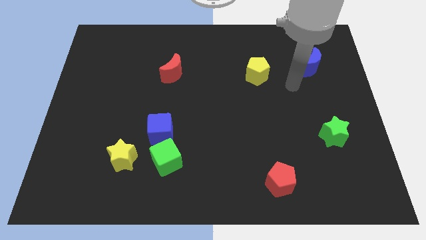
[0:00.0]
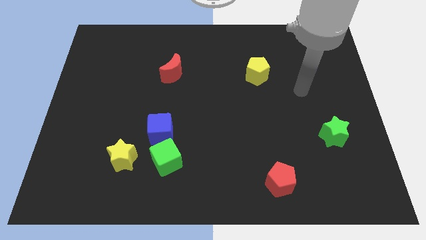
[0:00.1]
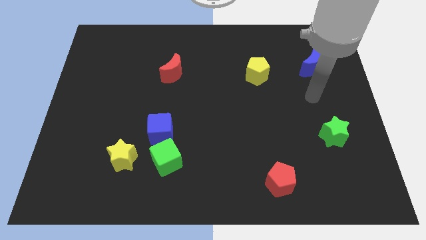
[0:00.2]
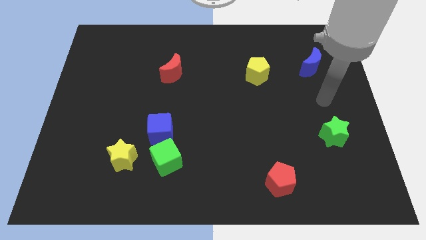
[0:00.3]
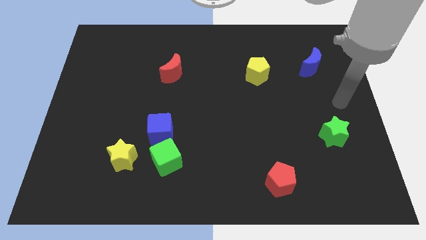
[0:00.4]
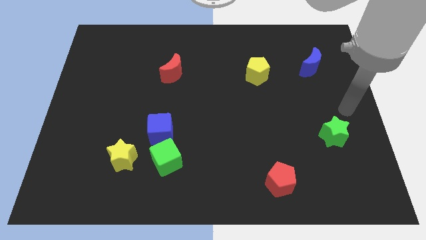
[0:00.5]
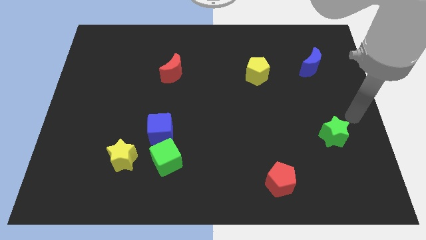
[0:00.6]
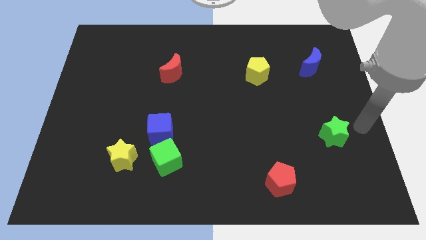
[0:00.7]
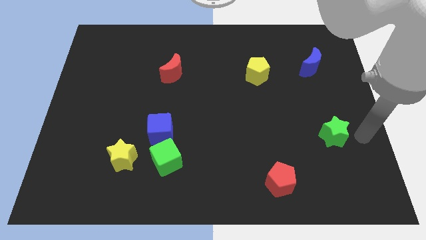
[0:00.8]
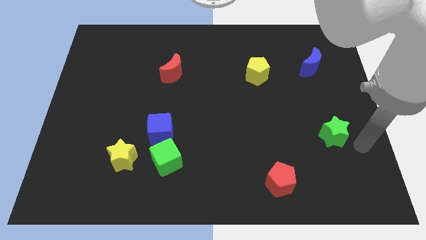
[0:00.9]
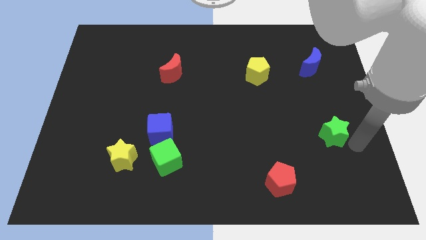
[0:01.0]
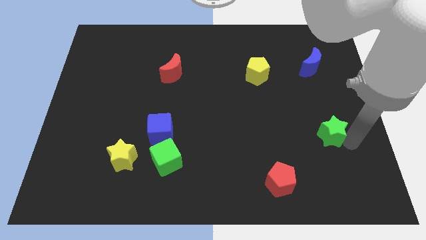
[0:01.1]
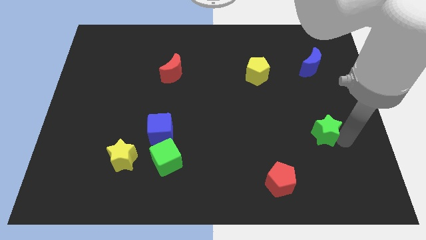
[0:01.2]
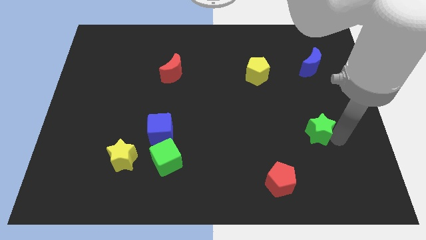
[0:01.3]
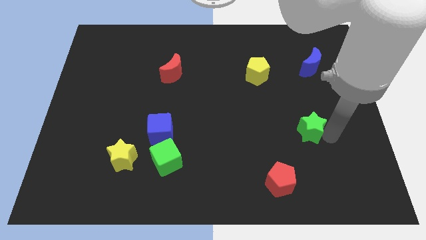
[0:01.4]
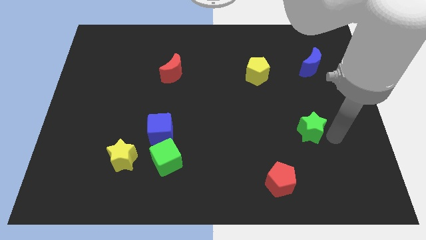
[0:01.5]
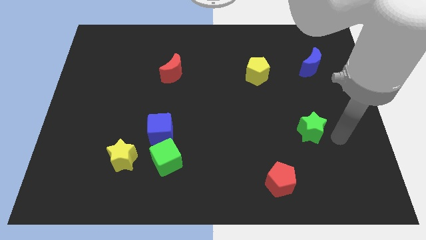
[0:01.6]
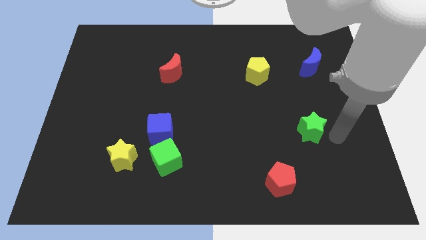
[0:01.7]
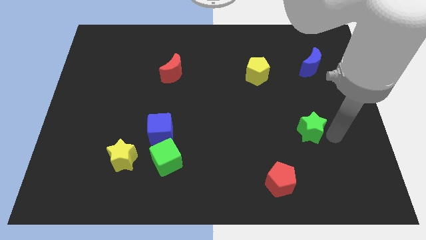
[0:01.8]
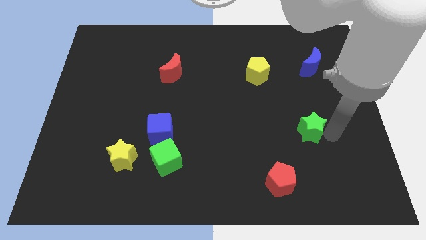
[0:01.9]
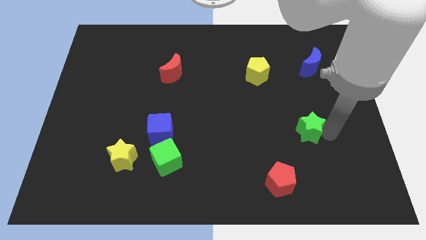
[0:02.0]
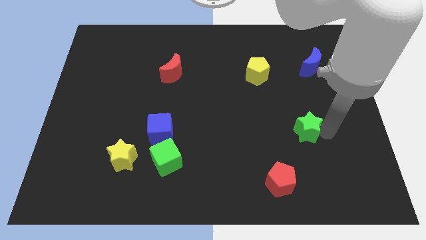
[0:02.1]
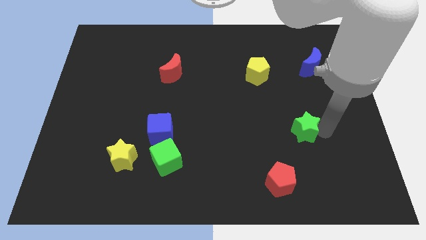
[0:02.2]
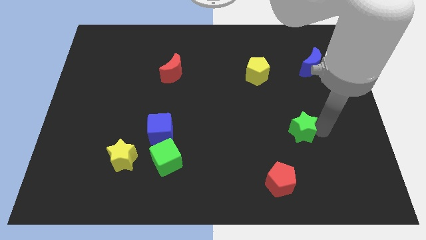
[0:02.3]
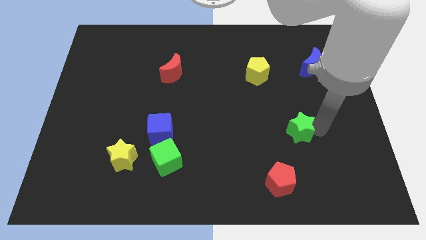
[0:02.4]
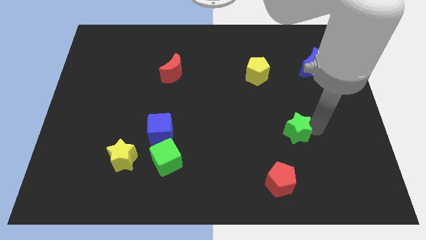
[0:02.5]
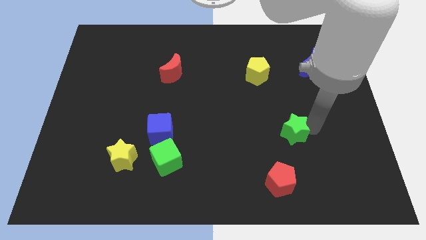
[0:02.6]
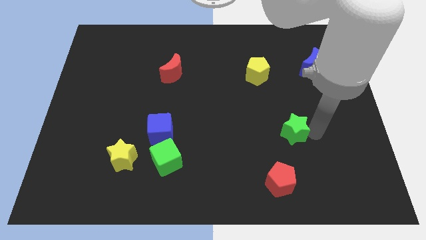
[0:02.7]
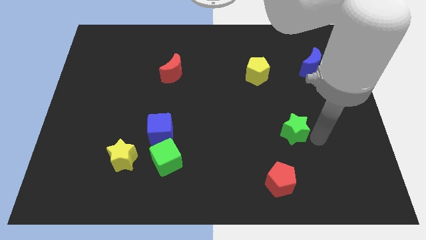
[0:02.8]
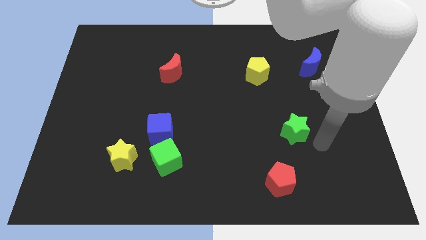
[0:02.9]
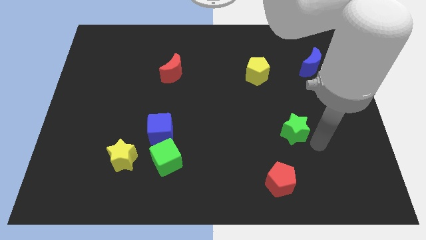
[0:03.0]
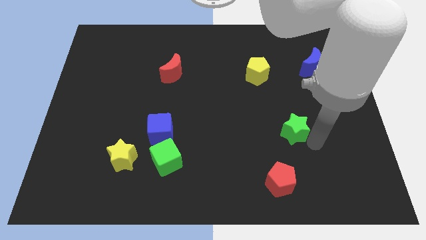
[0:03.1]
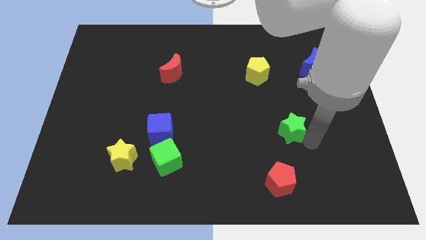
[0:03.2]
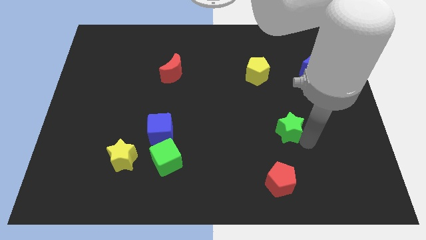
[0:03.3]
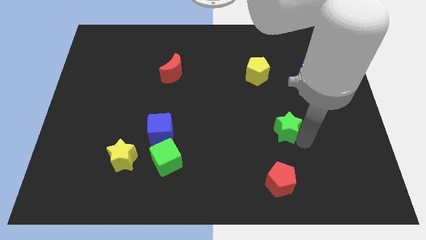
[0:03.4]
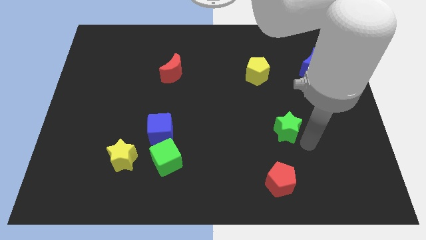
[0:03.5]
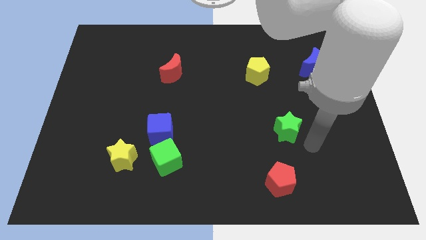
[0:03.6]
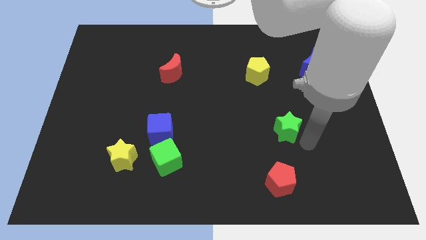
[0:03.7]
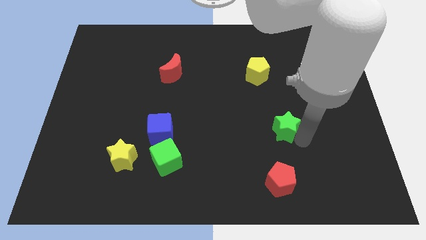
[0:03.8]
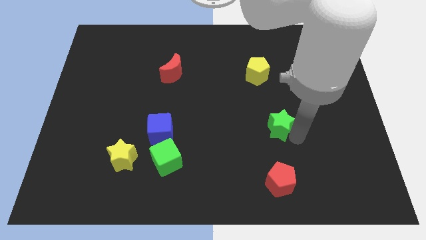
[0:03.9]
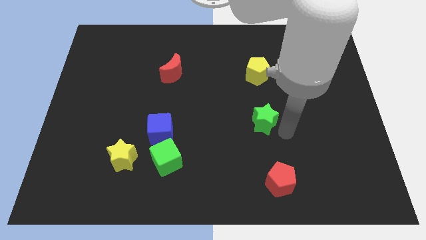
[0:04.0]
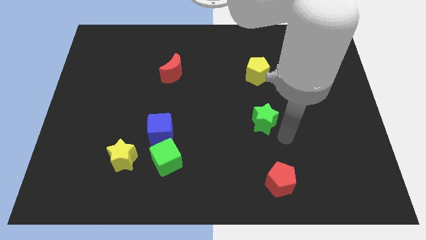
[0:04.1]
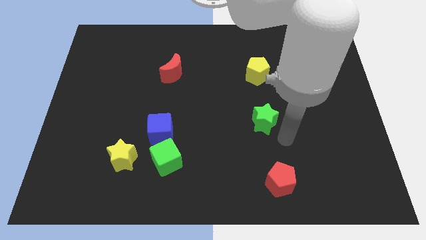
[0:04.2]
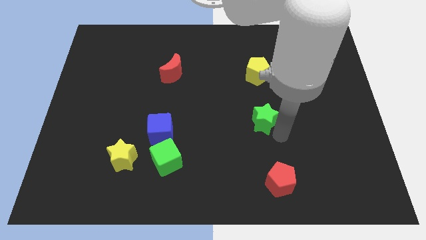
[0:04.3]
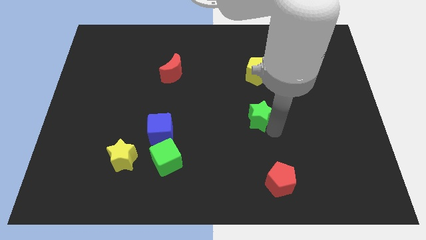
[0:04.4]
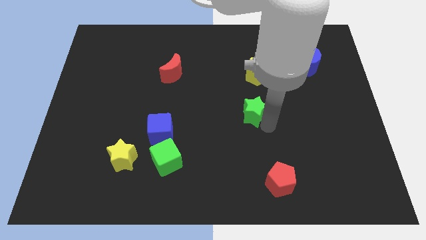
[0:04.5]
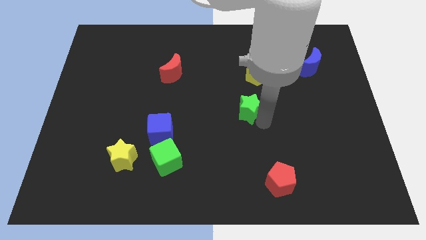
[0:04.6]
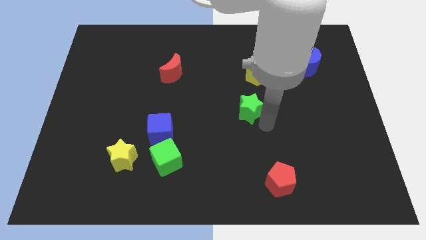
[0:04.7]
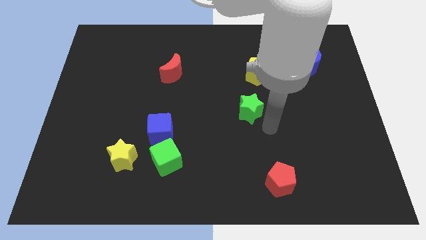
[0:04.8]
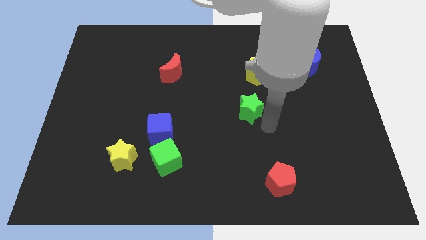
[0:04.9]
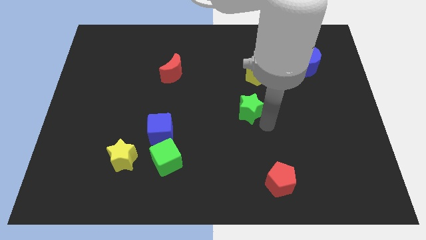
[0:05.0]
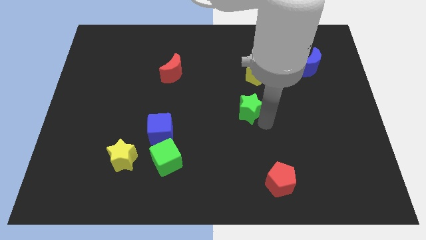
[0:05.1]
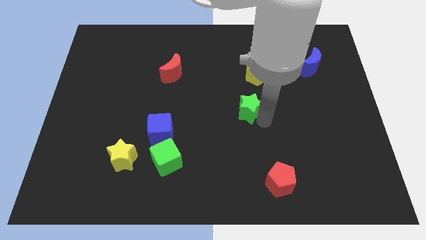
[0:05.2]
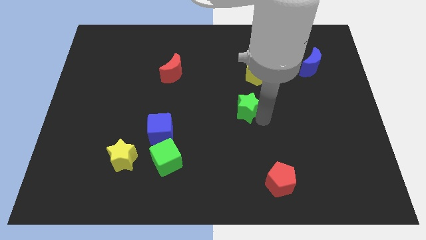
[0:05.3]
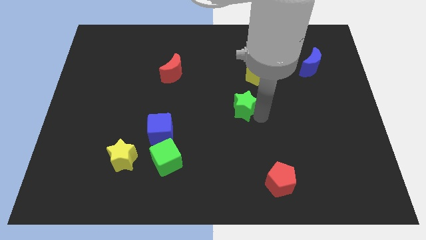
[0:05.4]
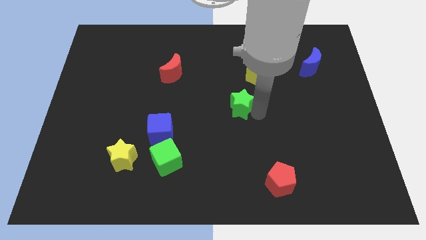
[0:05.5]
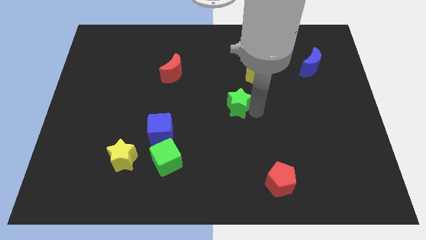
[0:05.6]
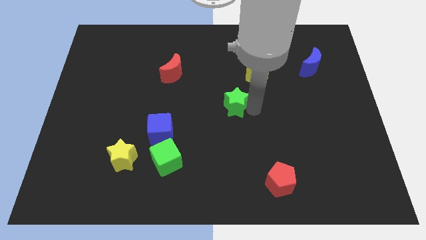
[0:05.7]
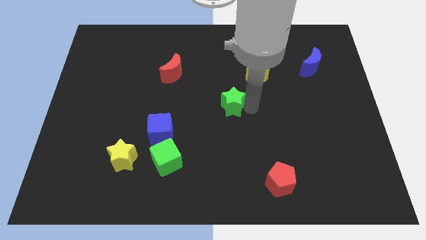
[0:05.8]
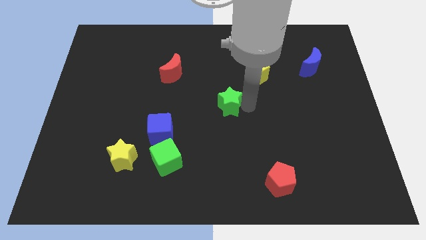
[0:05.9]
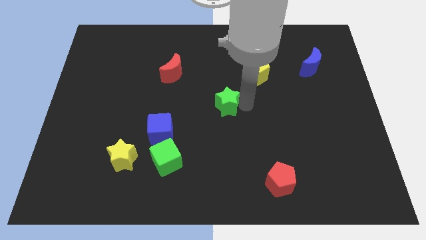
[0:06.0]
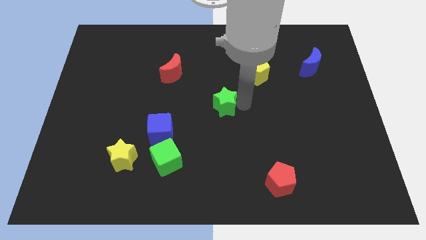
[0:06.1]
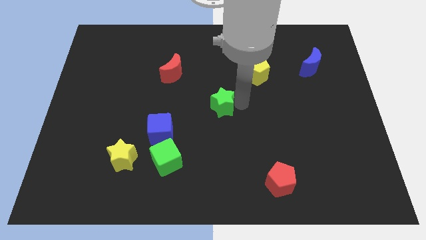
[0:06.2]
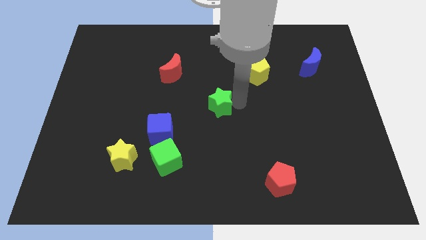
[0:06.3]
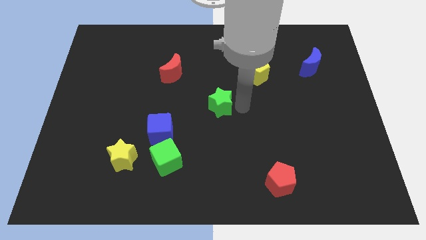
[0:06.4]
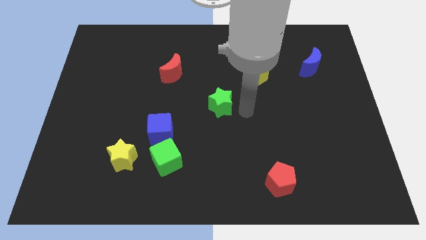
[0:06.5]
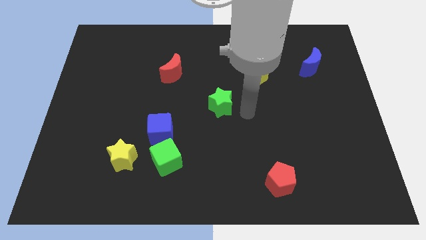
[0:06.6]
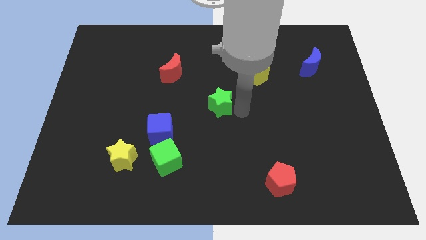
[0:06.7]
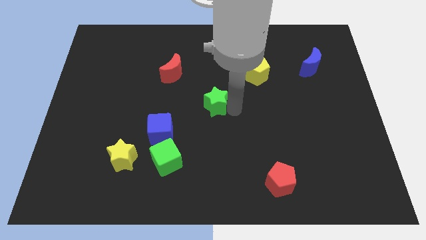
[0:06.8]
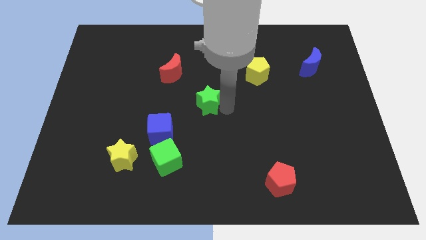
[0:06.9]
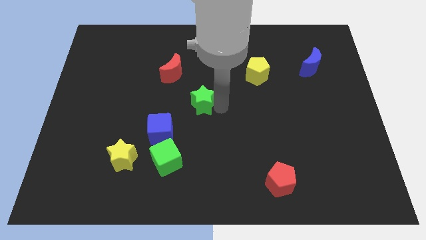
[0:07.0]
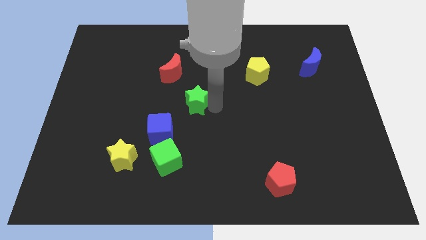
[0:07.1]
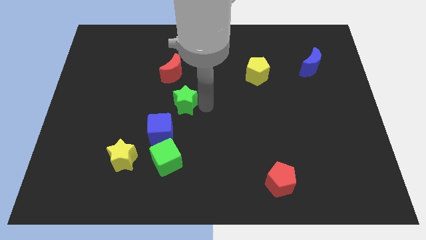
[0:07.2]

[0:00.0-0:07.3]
put the green star above the blue cube
